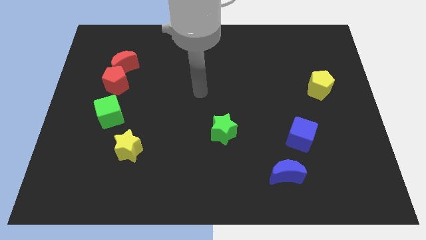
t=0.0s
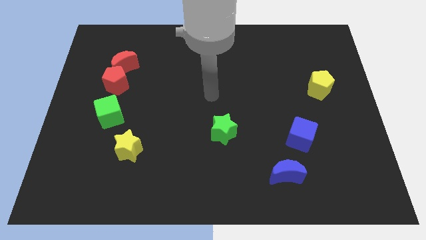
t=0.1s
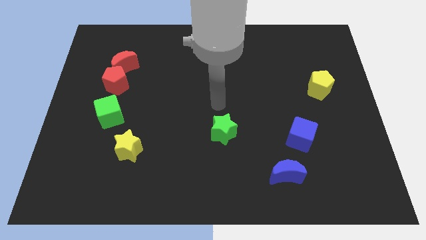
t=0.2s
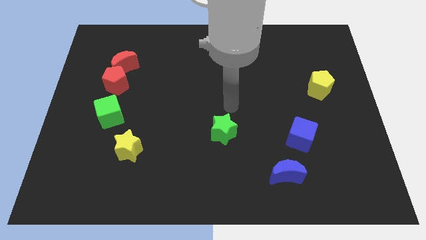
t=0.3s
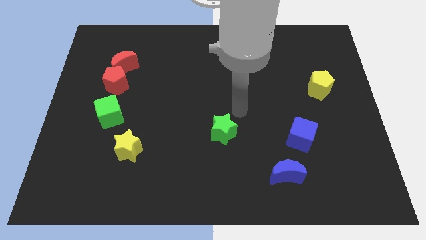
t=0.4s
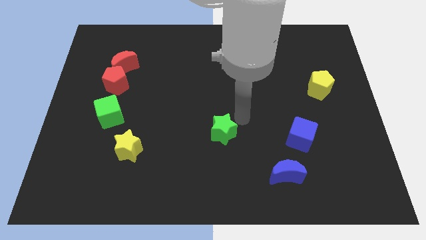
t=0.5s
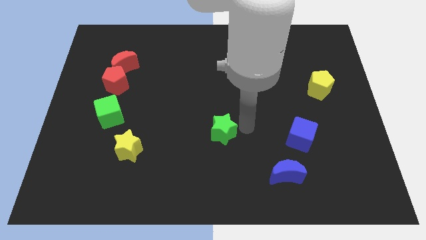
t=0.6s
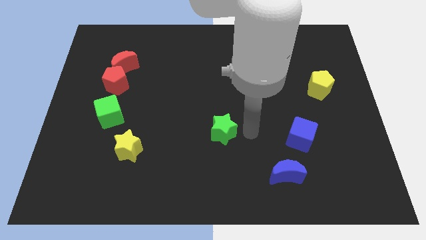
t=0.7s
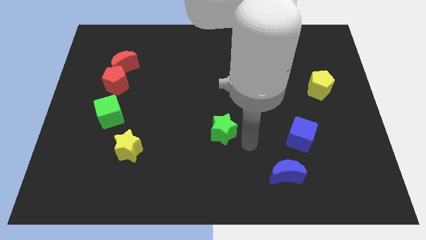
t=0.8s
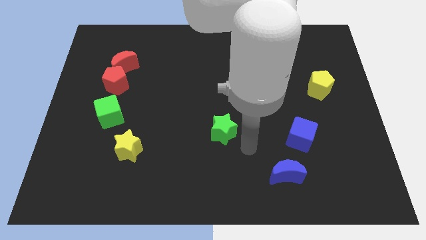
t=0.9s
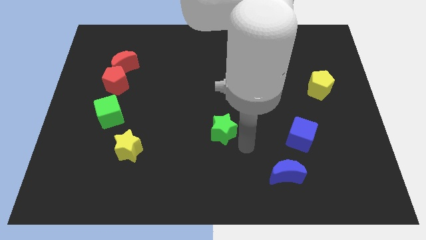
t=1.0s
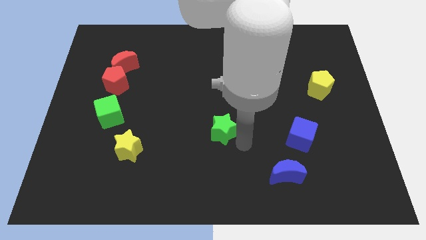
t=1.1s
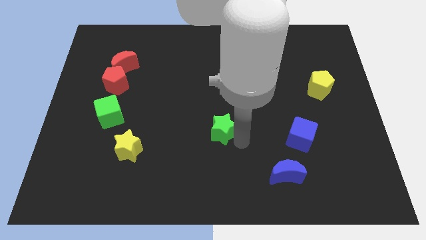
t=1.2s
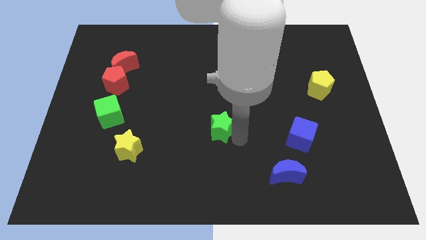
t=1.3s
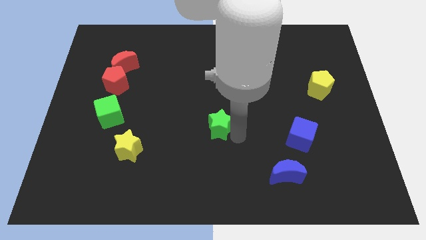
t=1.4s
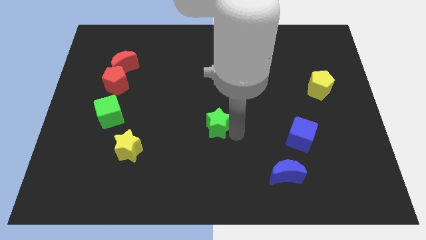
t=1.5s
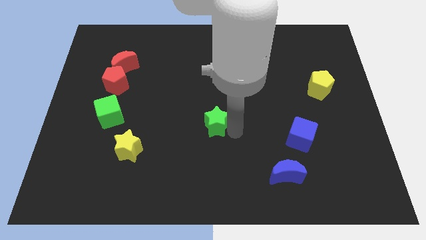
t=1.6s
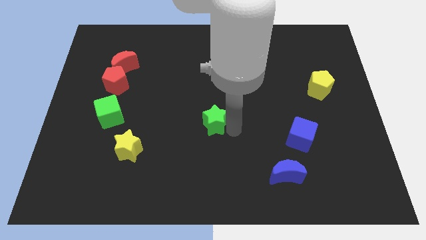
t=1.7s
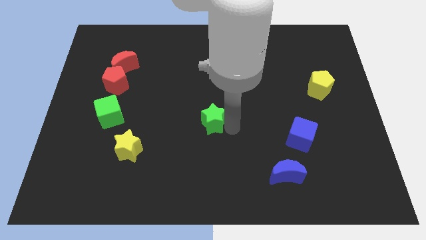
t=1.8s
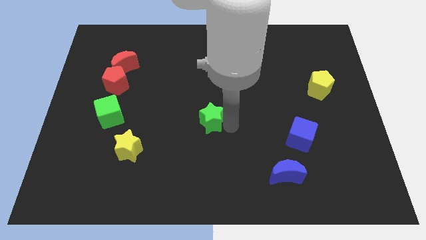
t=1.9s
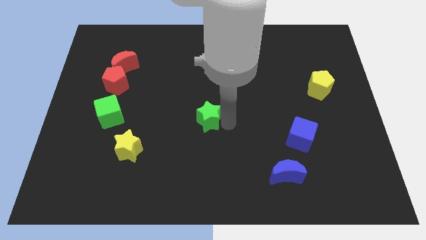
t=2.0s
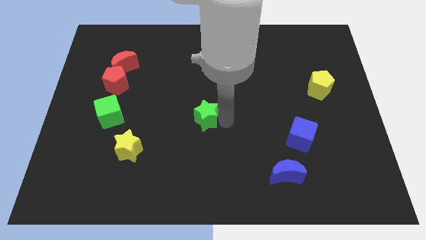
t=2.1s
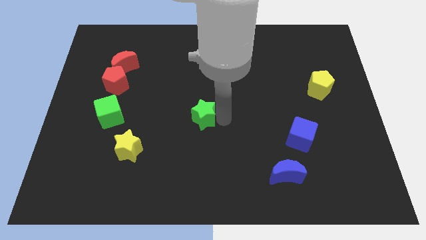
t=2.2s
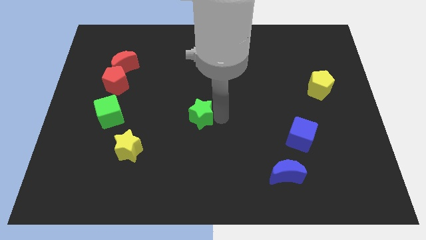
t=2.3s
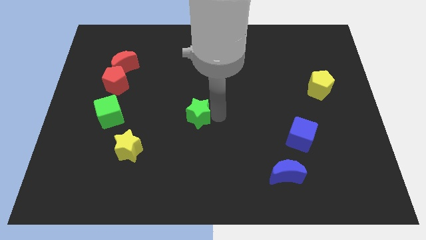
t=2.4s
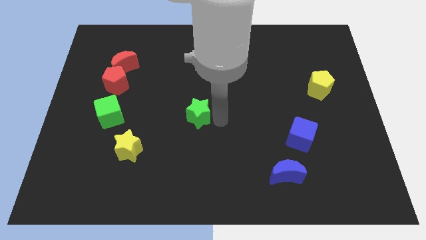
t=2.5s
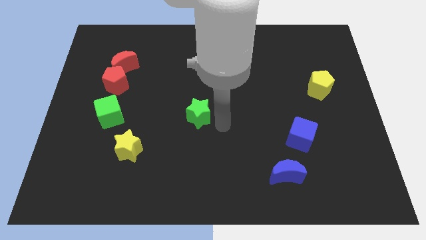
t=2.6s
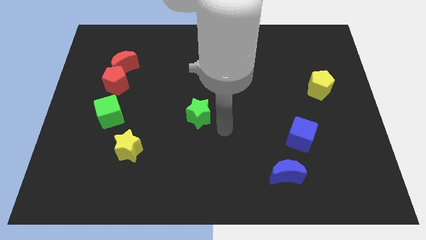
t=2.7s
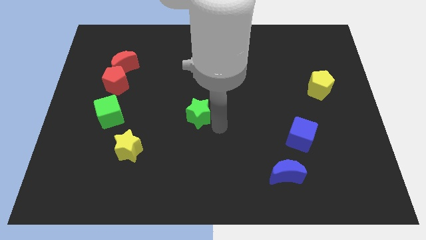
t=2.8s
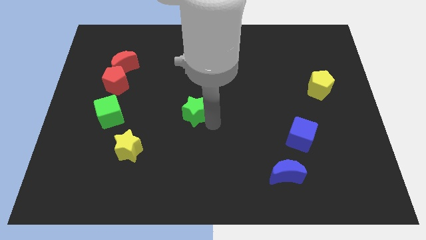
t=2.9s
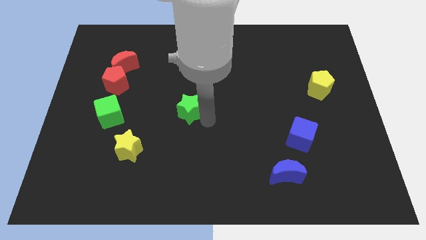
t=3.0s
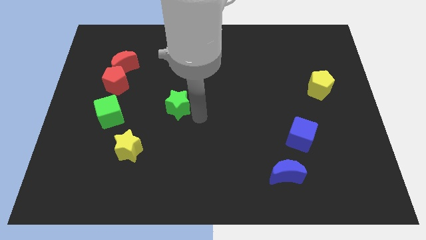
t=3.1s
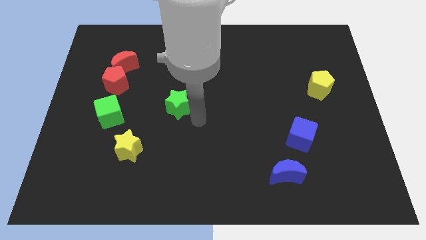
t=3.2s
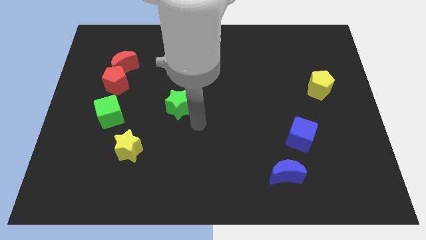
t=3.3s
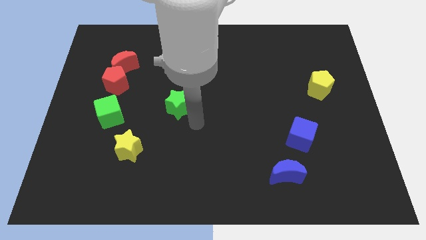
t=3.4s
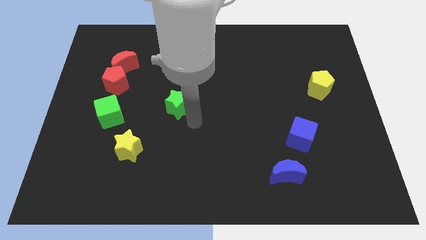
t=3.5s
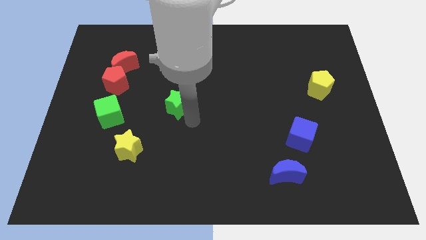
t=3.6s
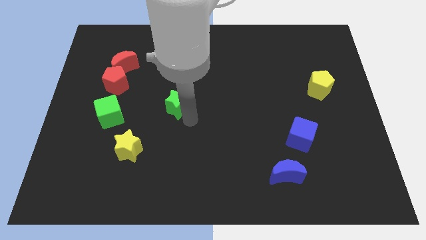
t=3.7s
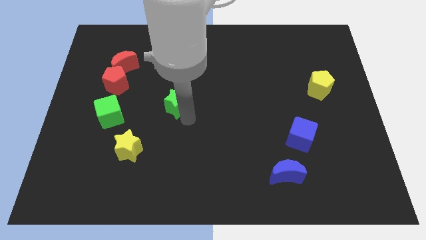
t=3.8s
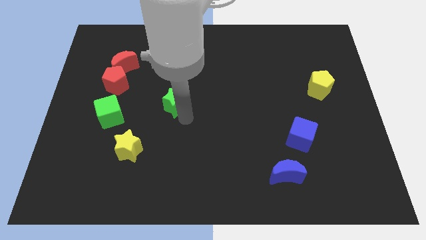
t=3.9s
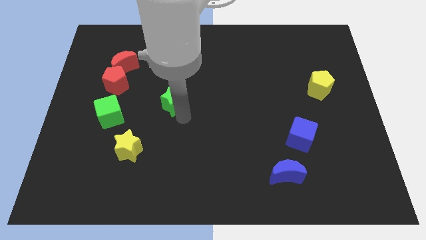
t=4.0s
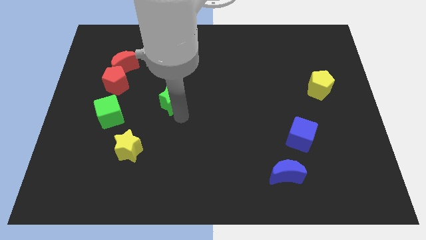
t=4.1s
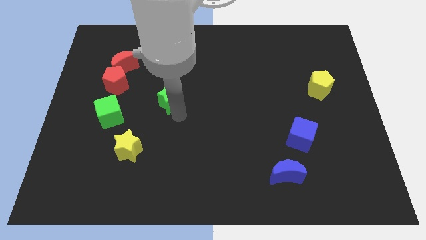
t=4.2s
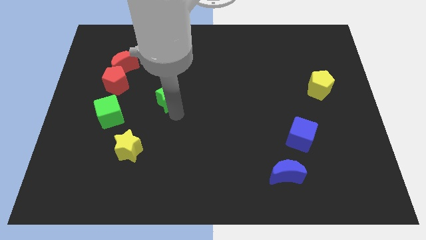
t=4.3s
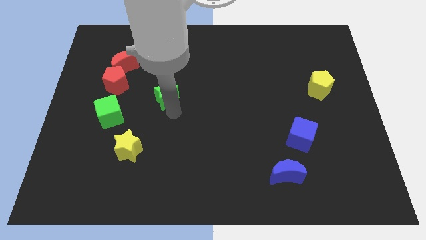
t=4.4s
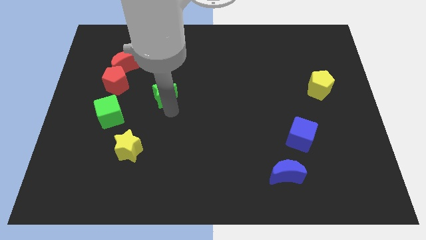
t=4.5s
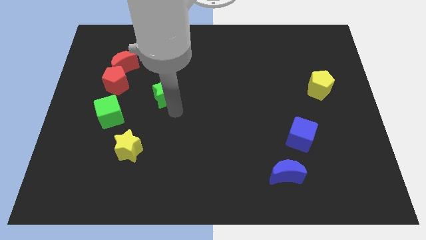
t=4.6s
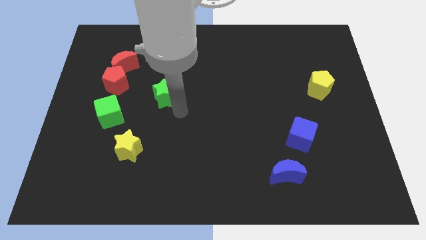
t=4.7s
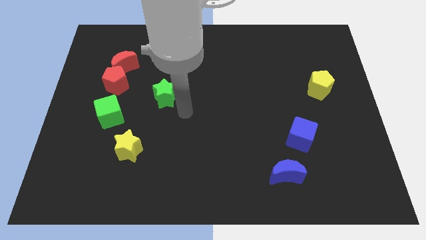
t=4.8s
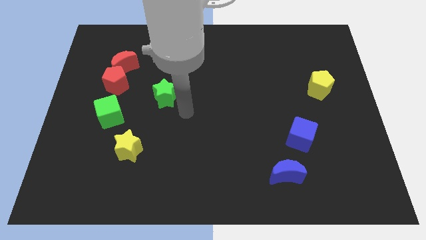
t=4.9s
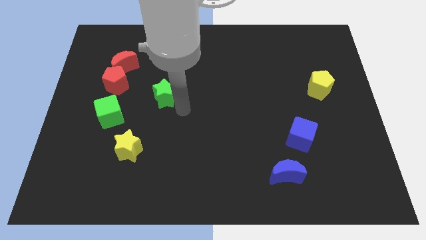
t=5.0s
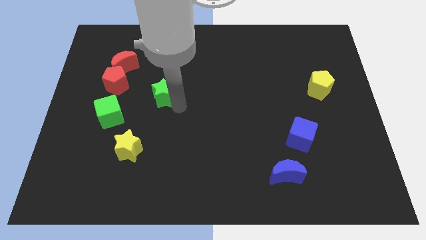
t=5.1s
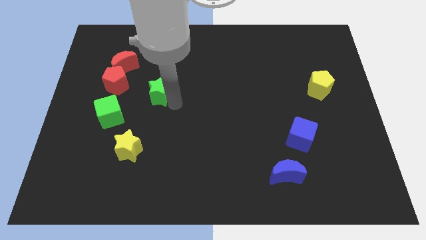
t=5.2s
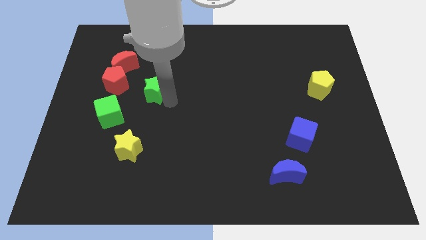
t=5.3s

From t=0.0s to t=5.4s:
push the green star to the bottom right of the red moon

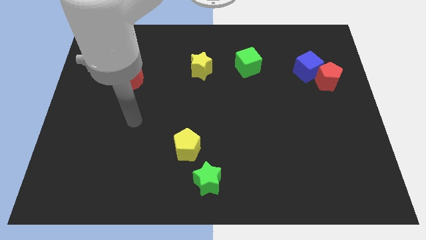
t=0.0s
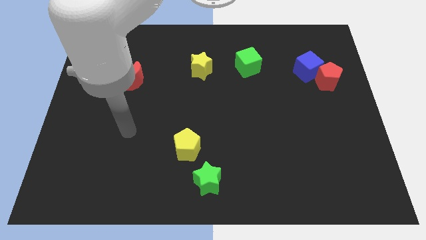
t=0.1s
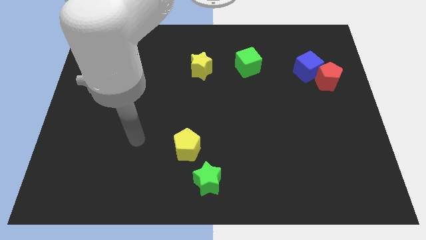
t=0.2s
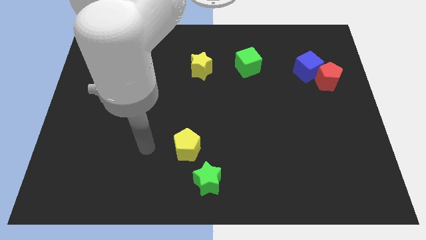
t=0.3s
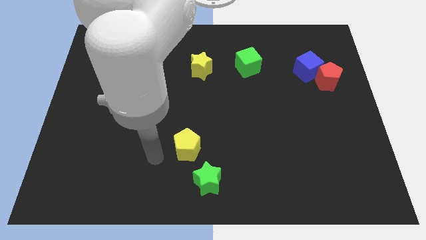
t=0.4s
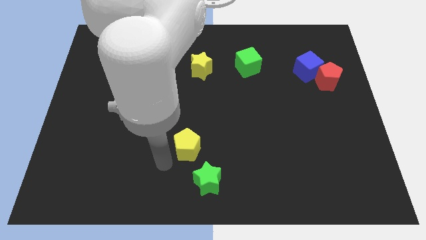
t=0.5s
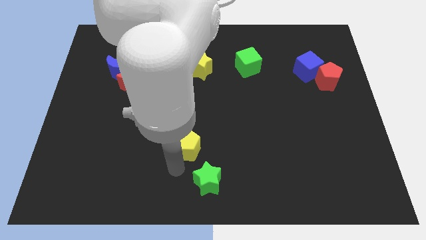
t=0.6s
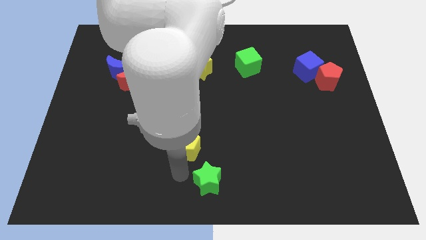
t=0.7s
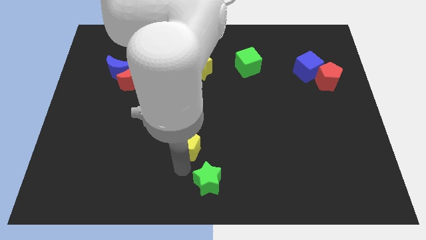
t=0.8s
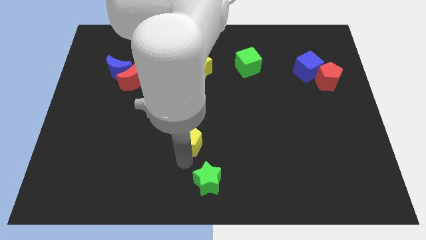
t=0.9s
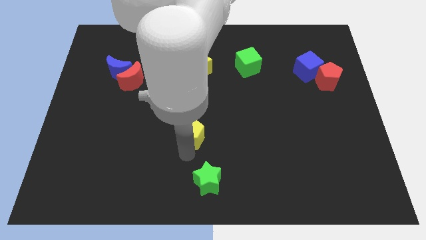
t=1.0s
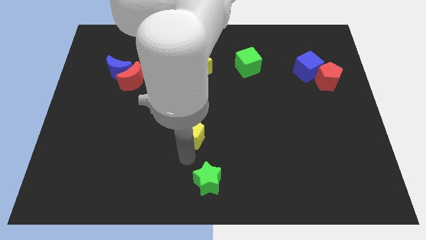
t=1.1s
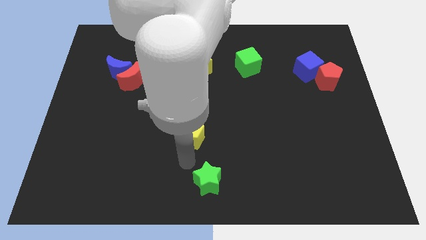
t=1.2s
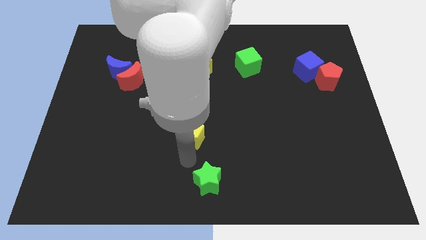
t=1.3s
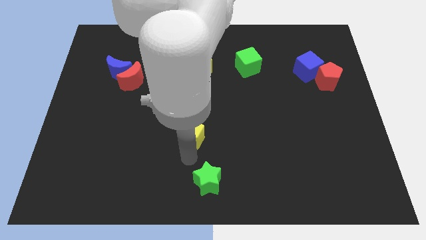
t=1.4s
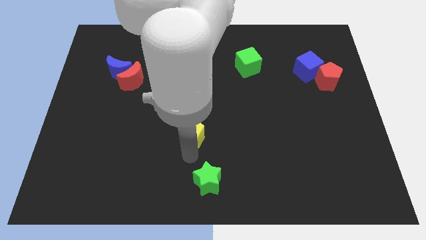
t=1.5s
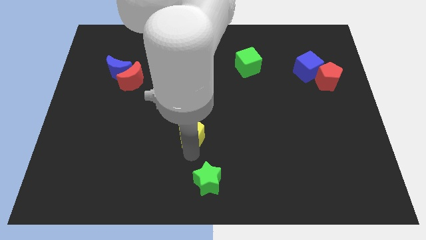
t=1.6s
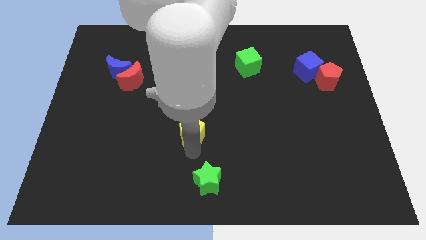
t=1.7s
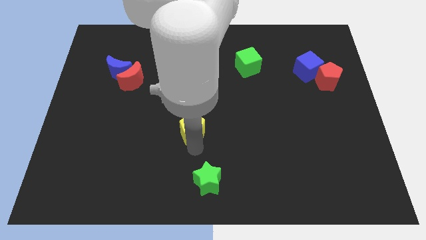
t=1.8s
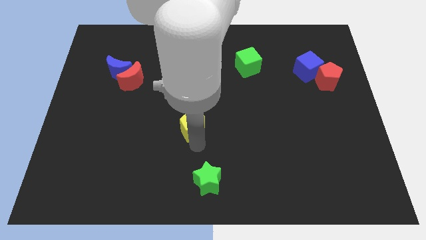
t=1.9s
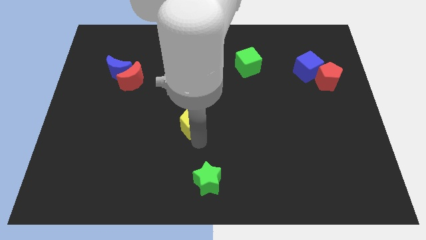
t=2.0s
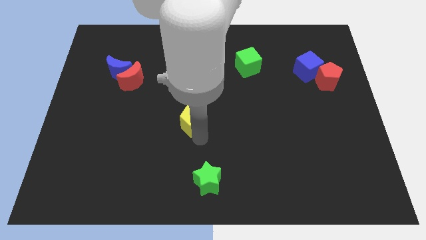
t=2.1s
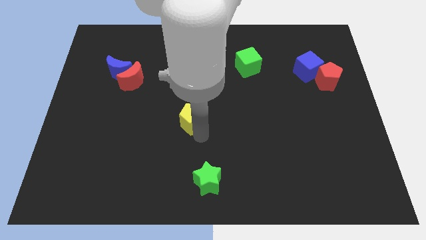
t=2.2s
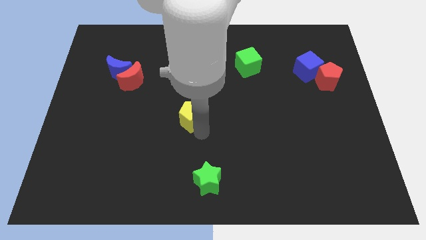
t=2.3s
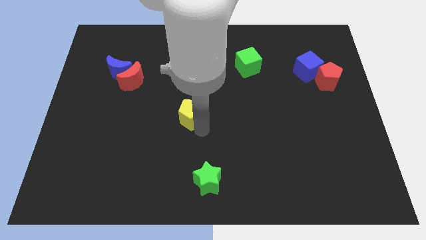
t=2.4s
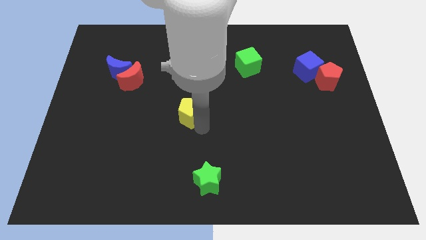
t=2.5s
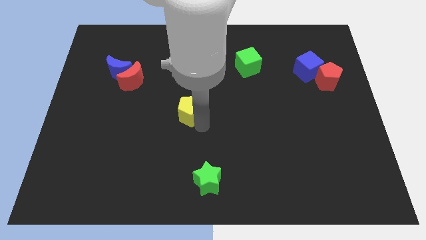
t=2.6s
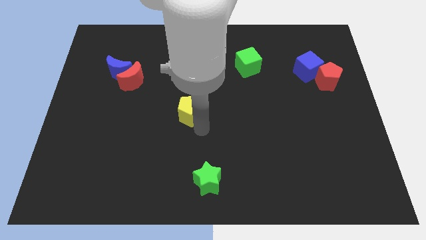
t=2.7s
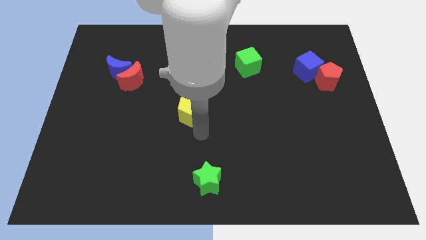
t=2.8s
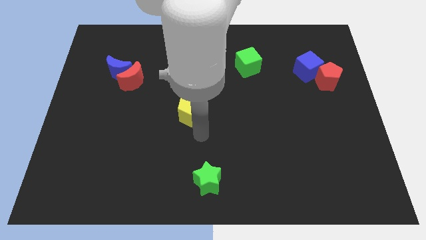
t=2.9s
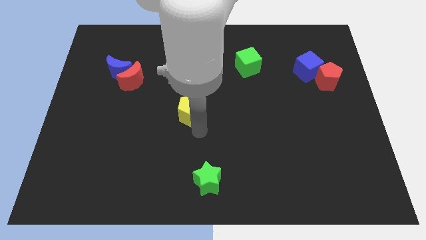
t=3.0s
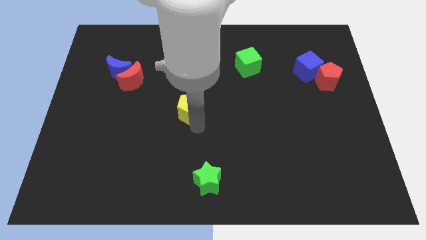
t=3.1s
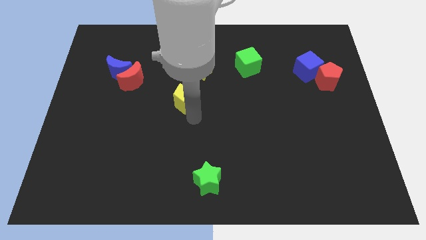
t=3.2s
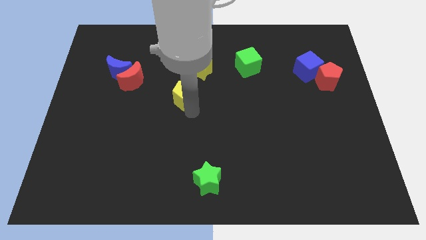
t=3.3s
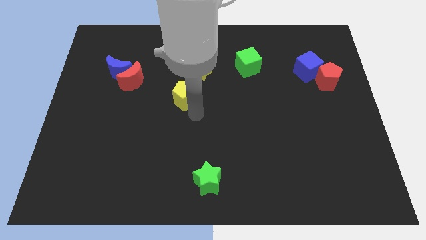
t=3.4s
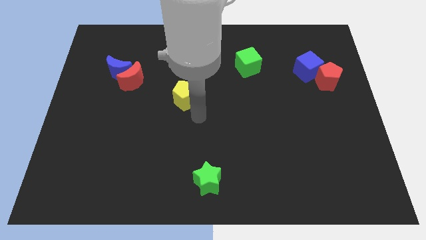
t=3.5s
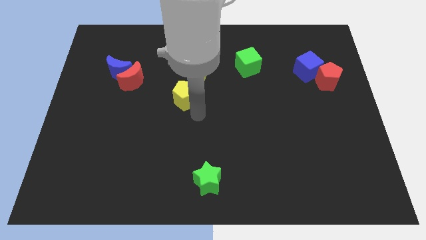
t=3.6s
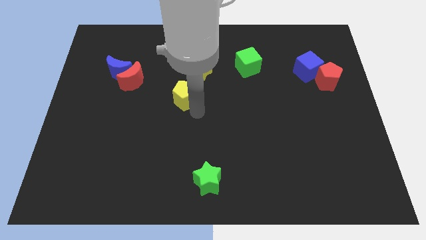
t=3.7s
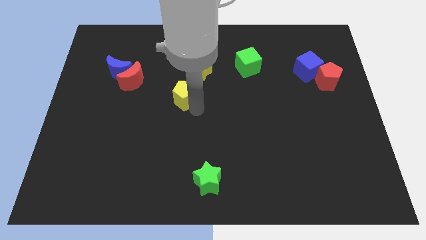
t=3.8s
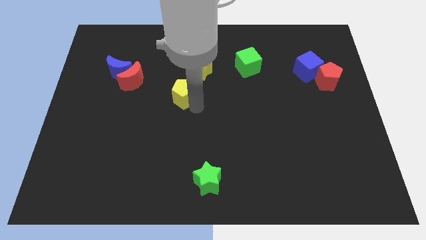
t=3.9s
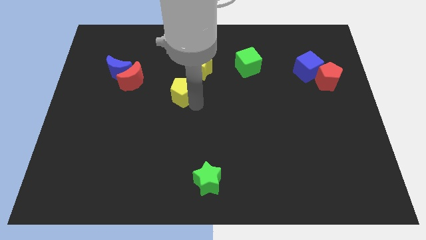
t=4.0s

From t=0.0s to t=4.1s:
push the yellow pentagon to the right of the red moon
